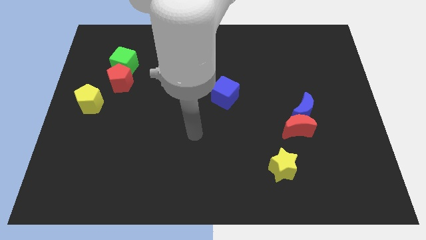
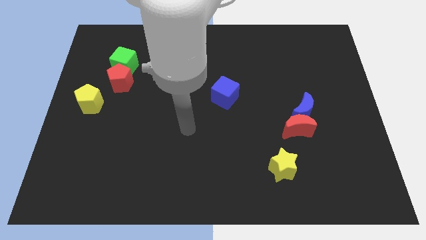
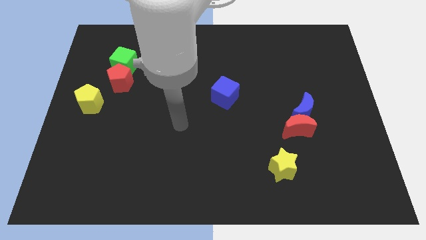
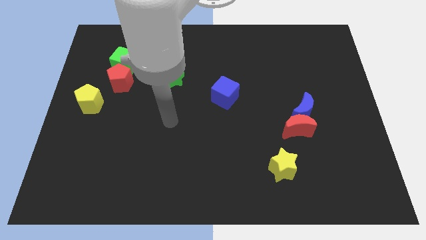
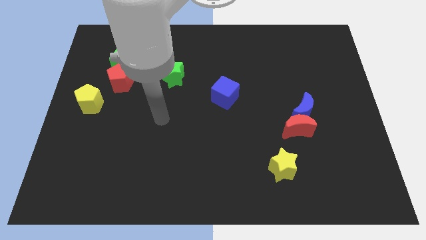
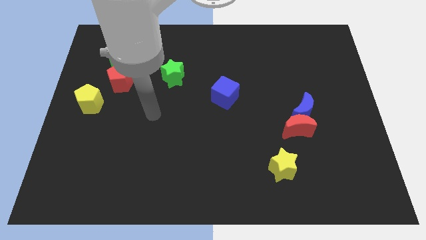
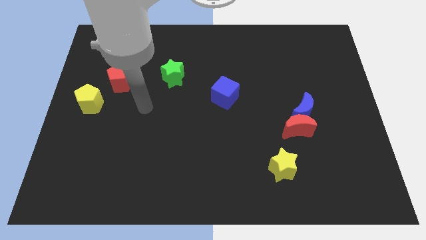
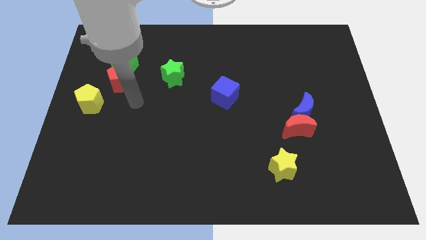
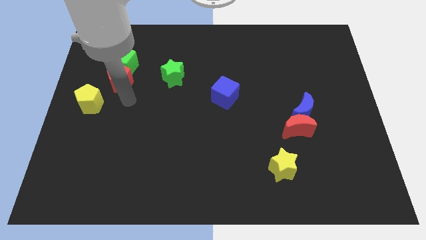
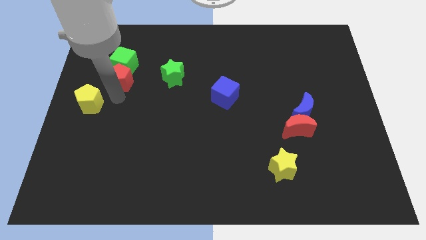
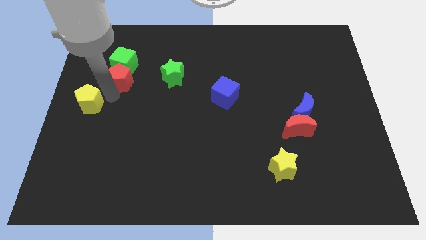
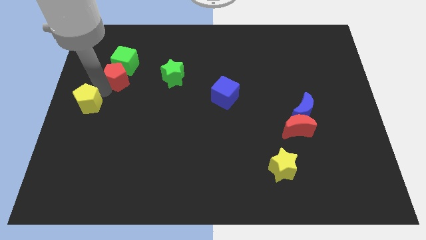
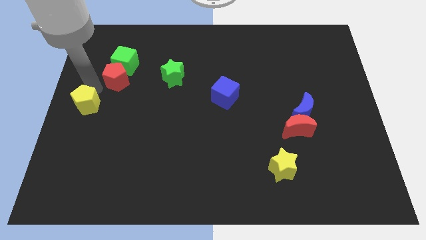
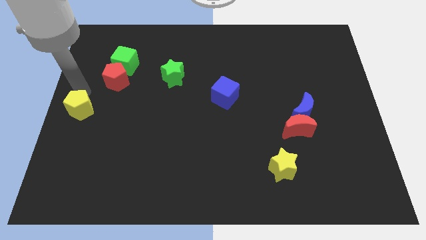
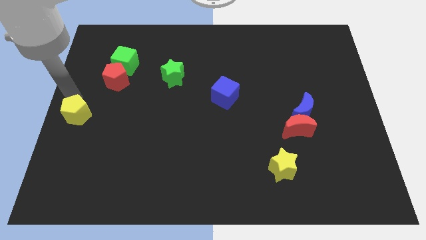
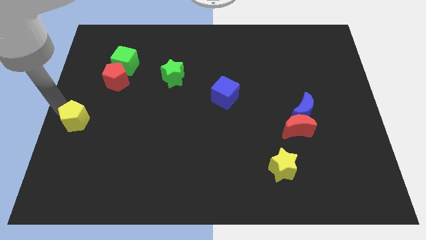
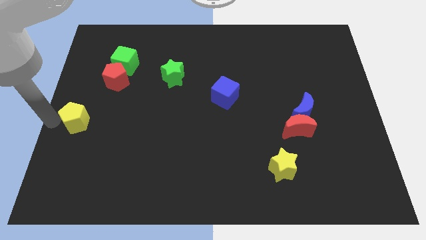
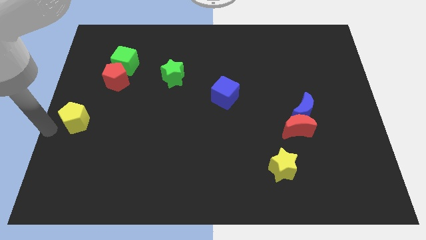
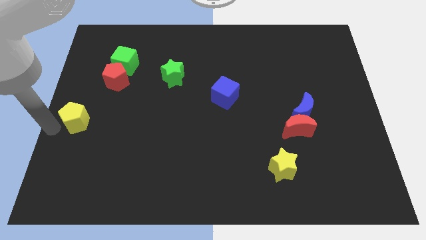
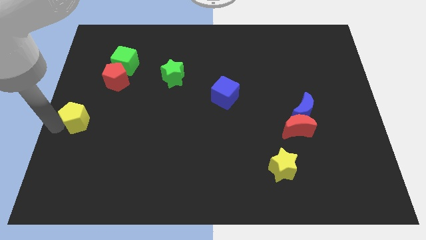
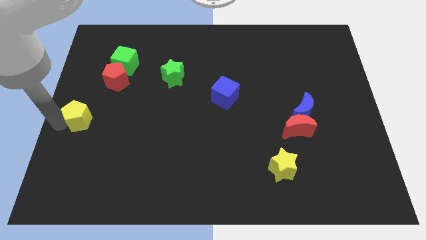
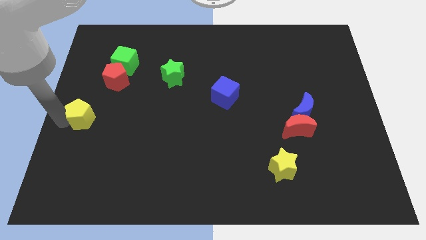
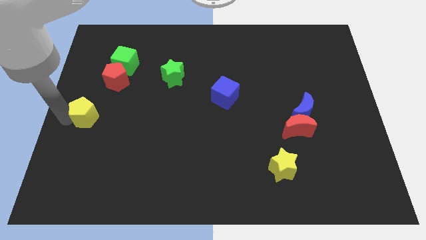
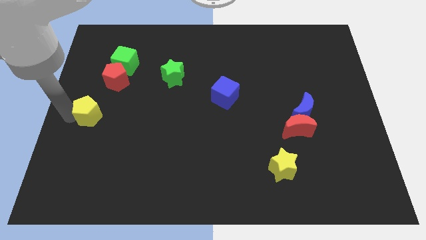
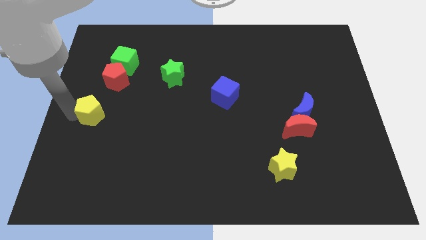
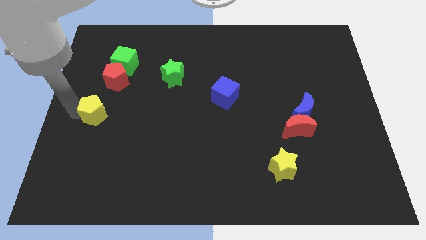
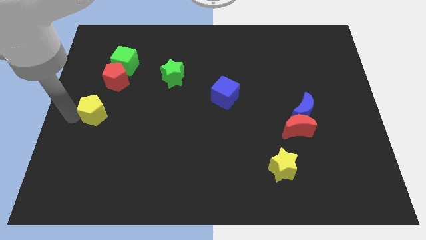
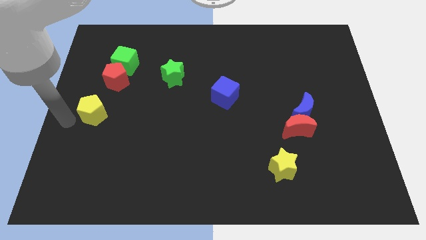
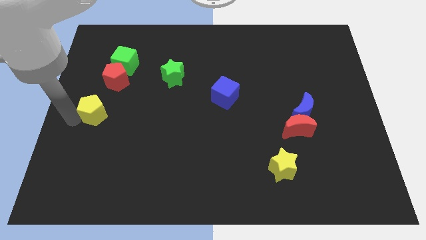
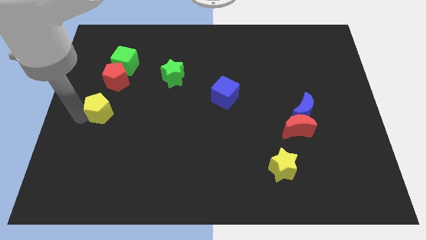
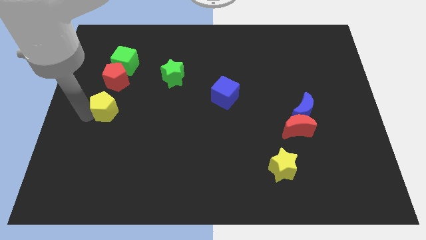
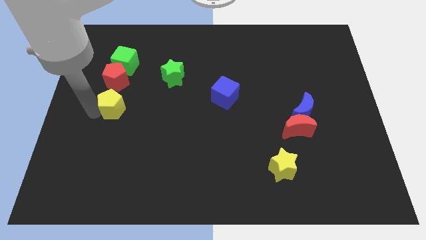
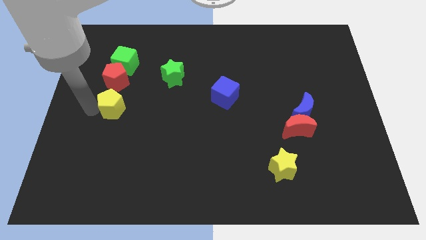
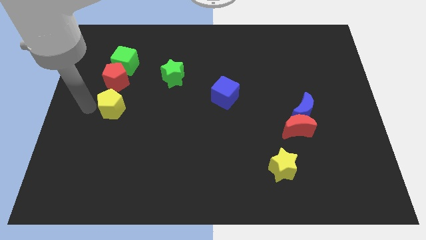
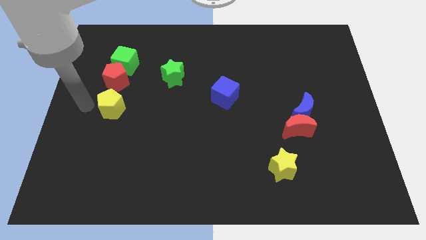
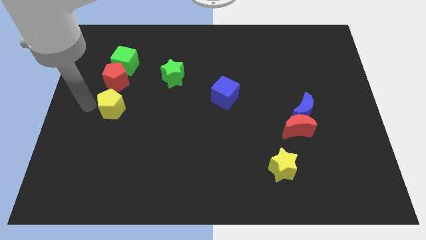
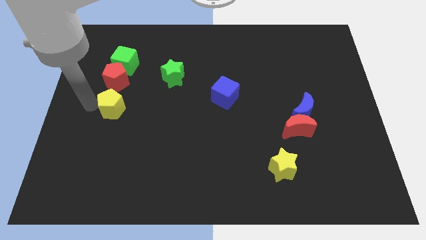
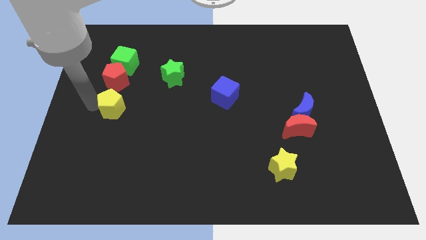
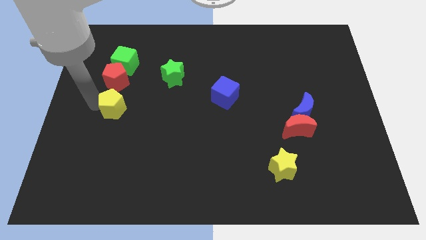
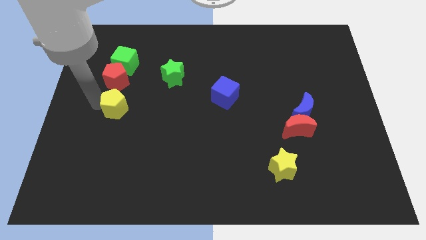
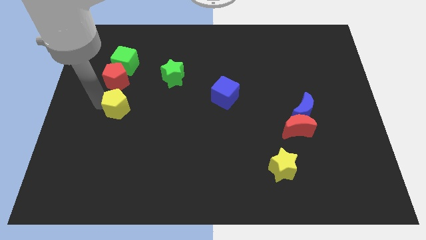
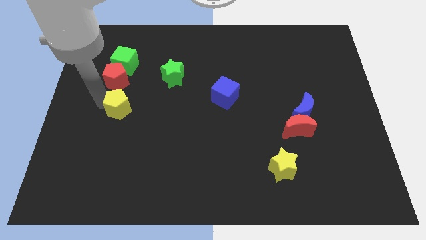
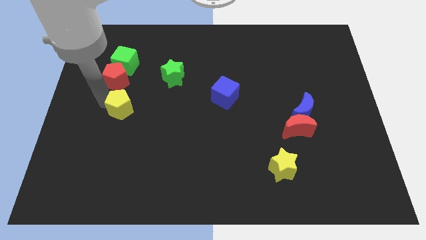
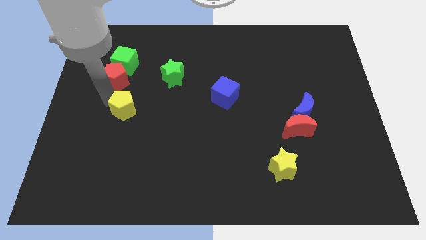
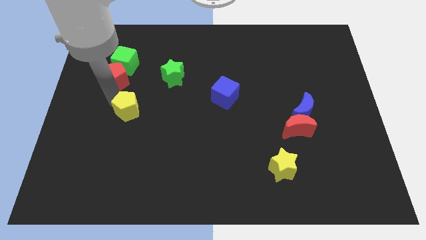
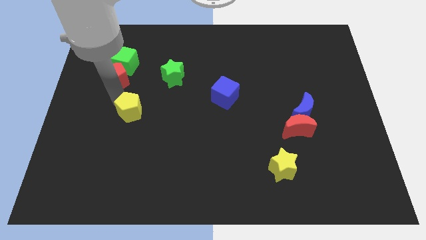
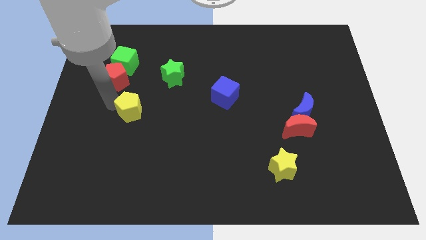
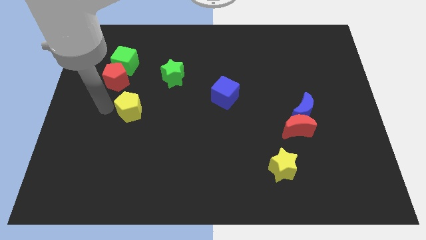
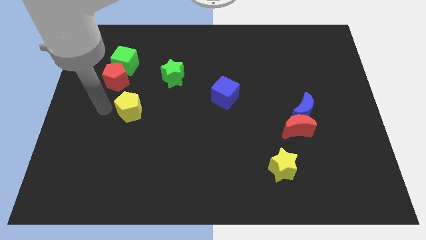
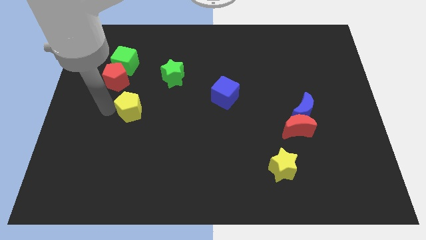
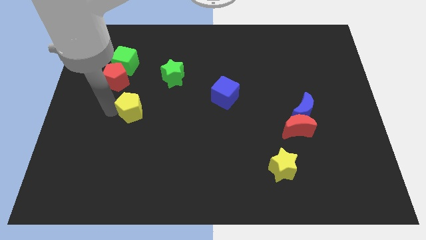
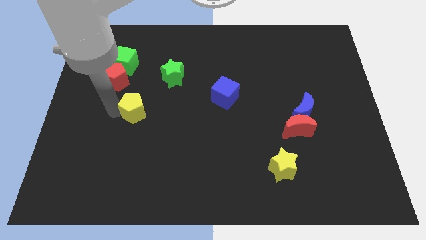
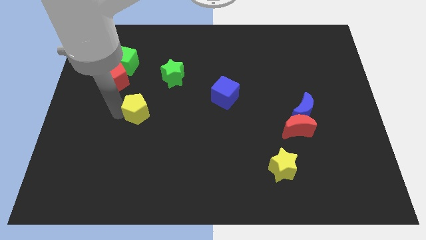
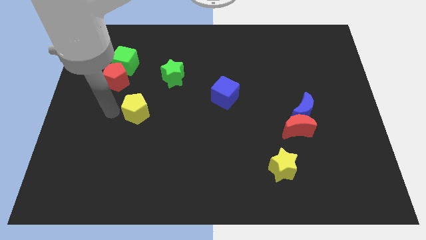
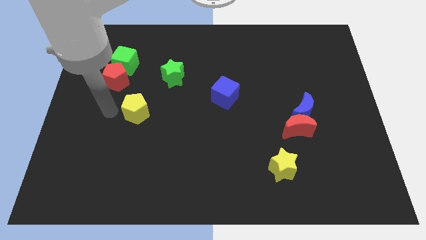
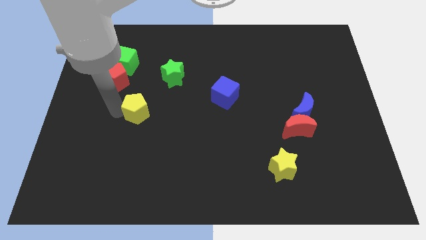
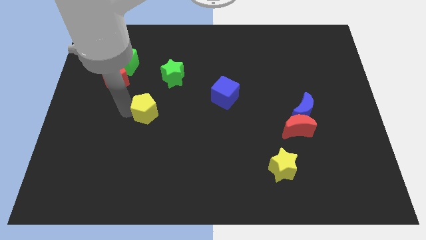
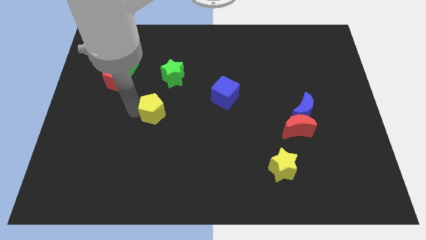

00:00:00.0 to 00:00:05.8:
slide the yellow pentagon below the green star
